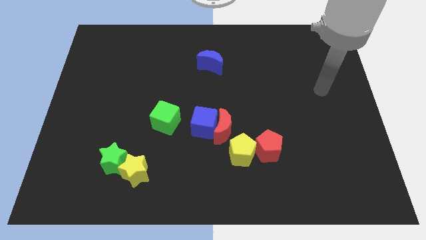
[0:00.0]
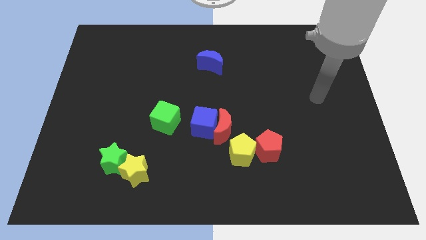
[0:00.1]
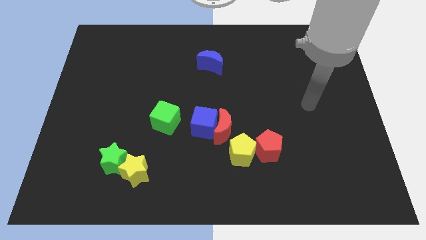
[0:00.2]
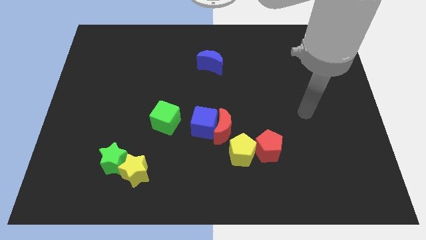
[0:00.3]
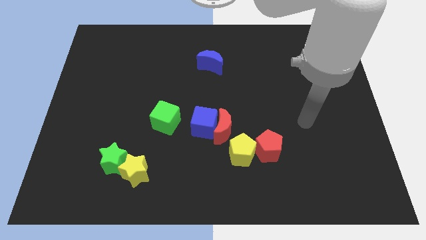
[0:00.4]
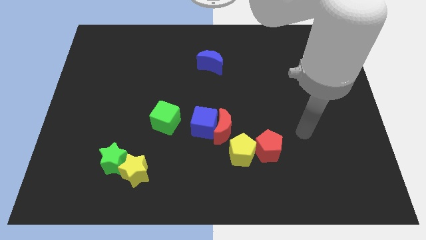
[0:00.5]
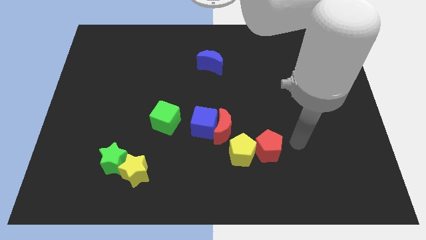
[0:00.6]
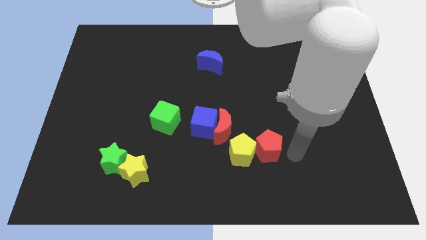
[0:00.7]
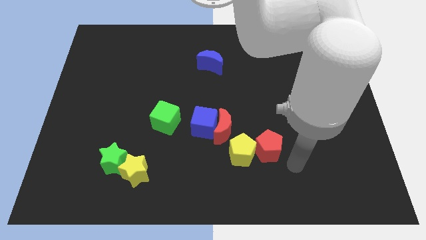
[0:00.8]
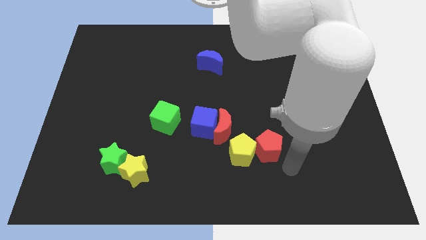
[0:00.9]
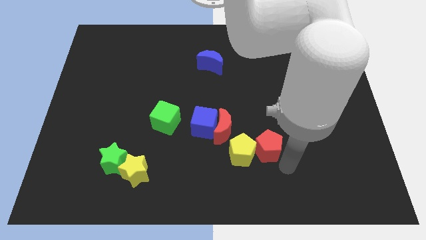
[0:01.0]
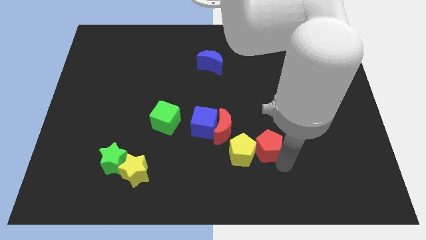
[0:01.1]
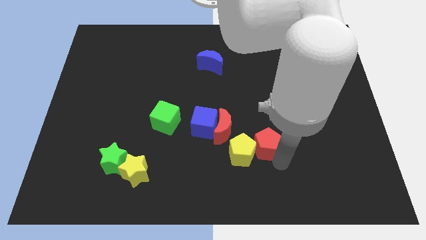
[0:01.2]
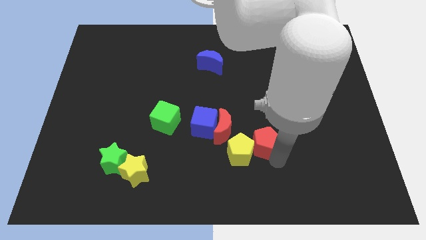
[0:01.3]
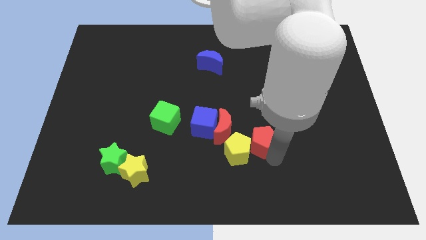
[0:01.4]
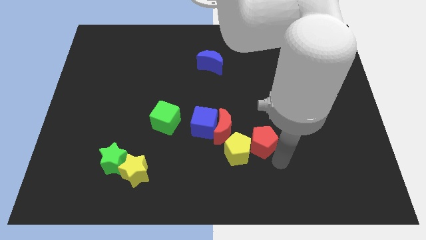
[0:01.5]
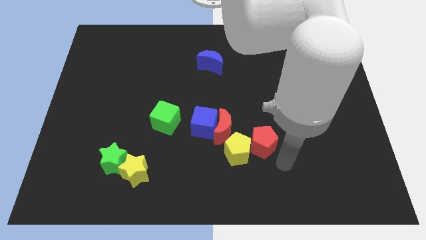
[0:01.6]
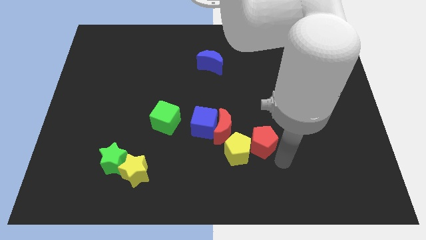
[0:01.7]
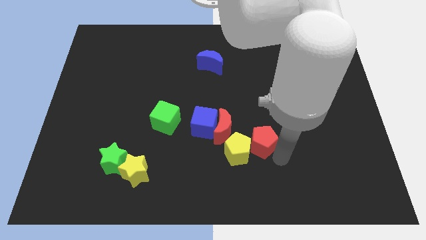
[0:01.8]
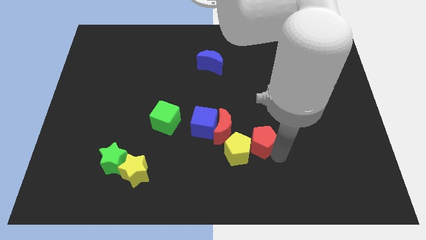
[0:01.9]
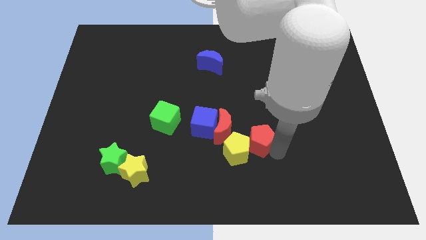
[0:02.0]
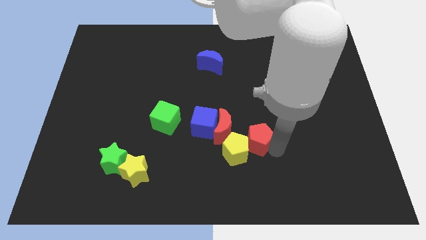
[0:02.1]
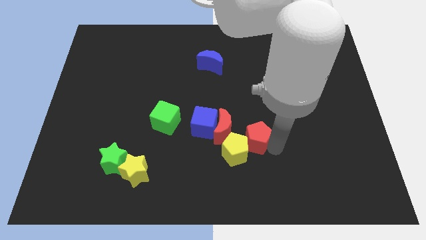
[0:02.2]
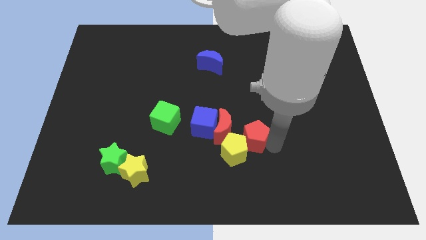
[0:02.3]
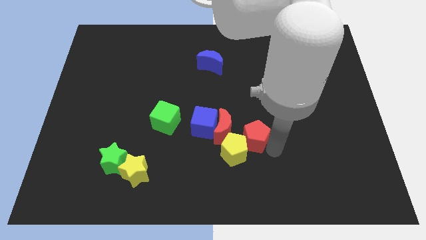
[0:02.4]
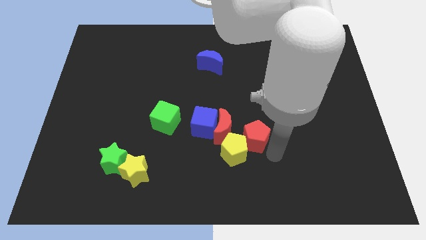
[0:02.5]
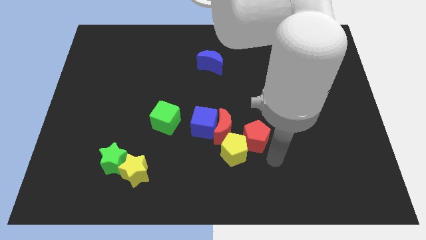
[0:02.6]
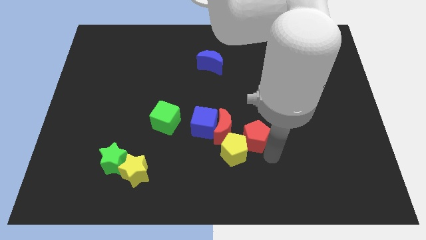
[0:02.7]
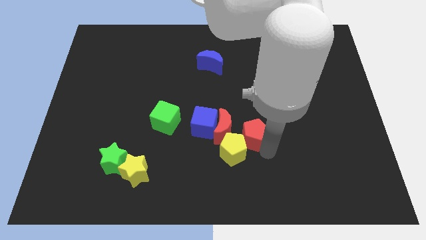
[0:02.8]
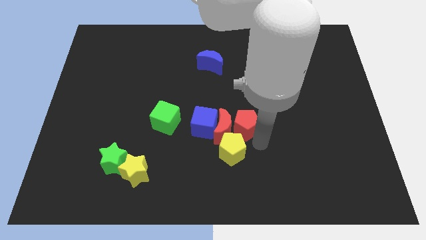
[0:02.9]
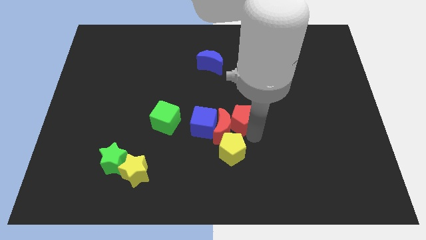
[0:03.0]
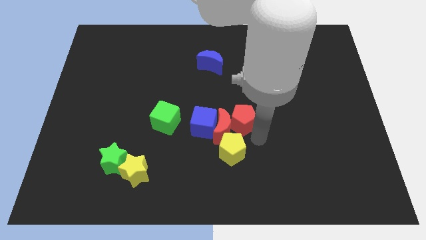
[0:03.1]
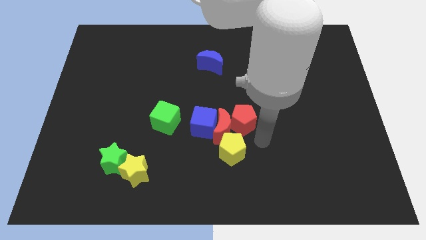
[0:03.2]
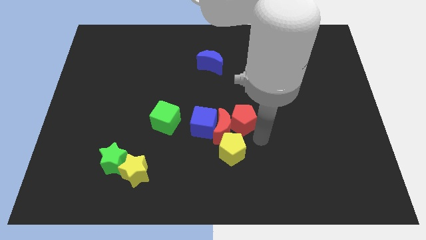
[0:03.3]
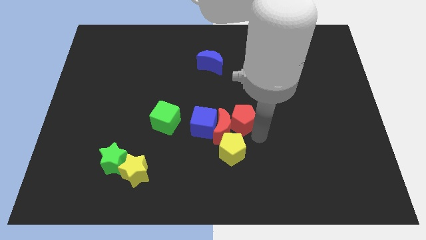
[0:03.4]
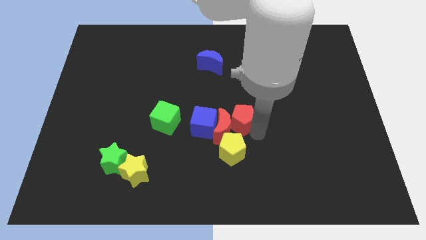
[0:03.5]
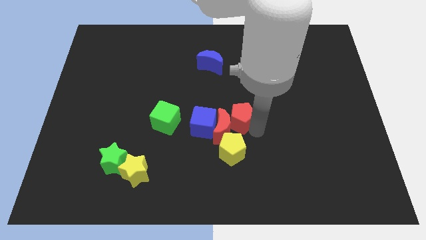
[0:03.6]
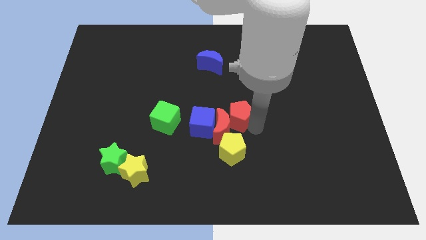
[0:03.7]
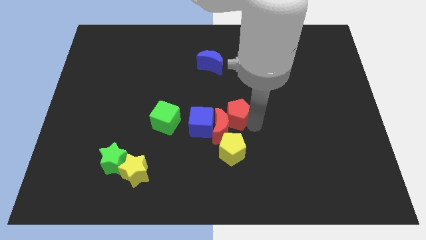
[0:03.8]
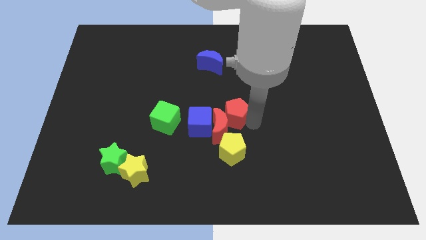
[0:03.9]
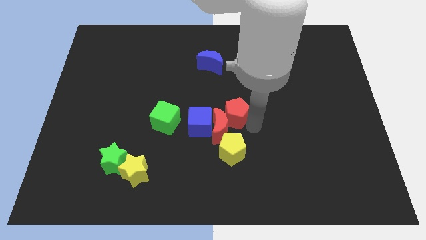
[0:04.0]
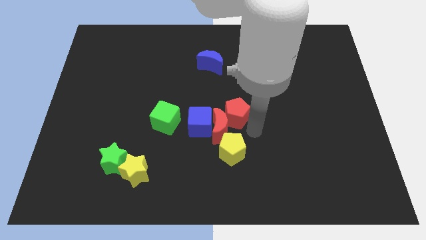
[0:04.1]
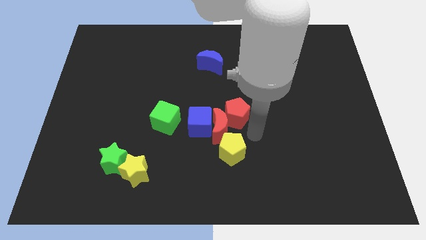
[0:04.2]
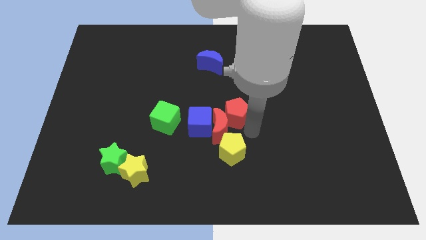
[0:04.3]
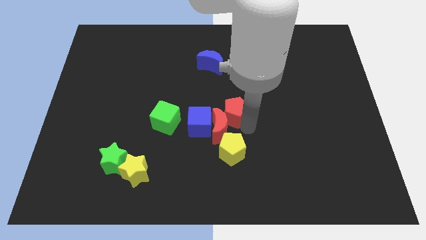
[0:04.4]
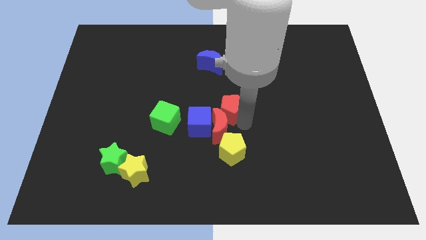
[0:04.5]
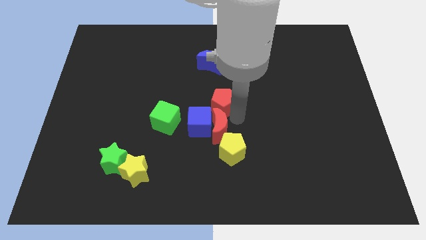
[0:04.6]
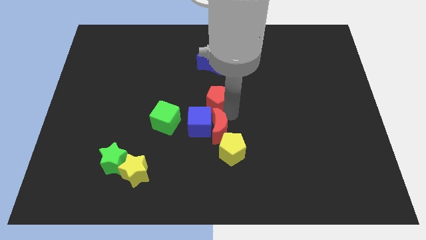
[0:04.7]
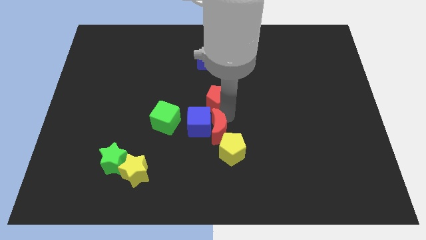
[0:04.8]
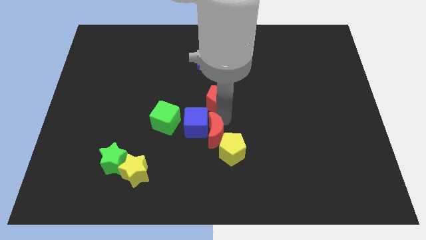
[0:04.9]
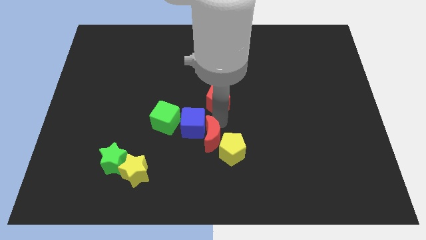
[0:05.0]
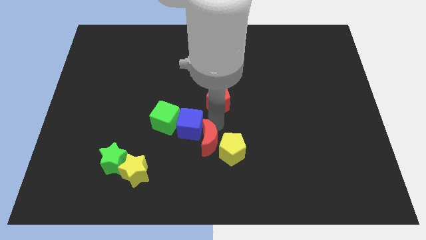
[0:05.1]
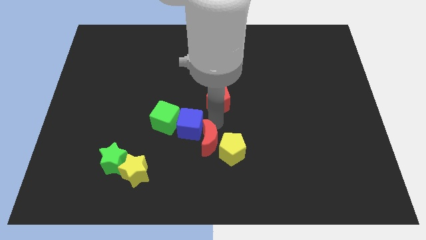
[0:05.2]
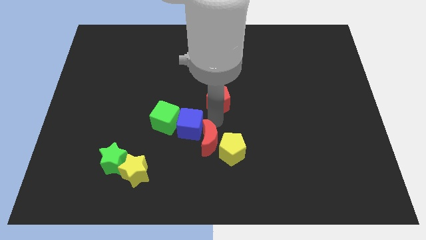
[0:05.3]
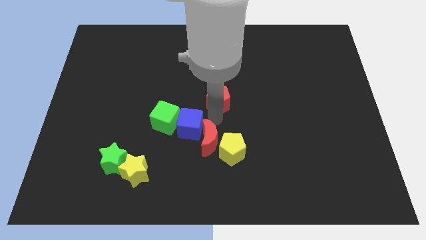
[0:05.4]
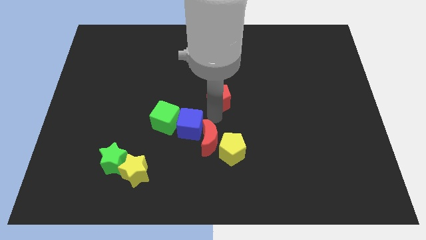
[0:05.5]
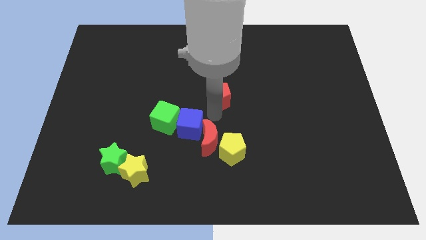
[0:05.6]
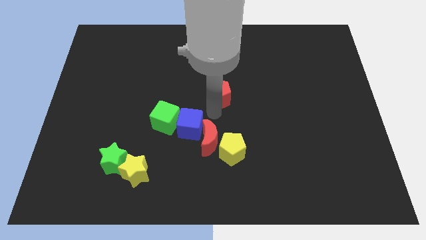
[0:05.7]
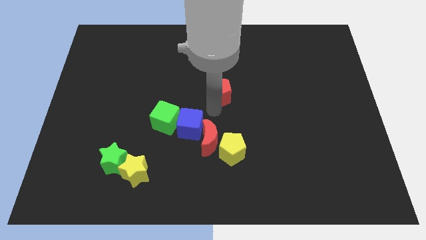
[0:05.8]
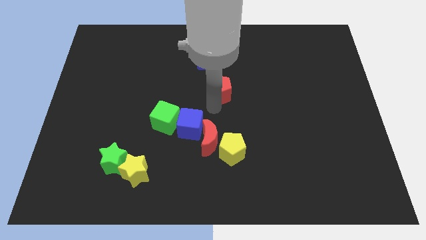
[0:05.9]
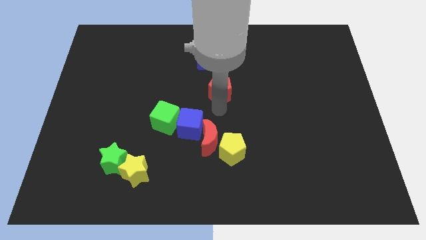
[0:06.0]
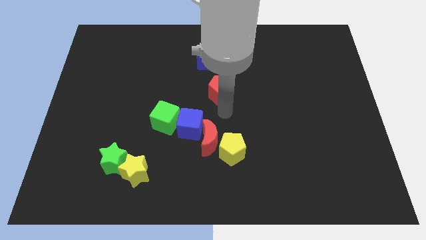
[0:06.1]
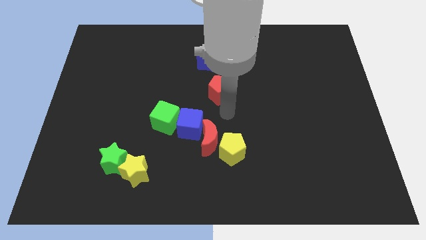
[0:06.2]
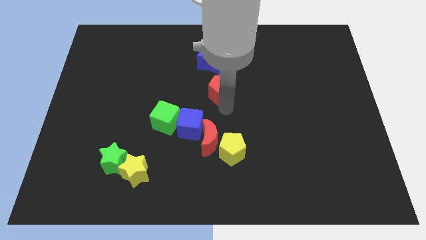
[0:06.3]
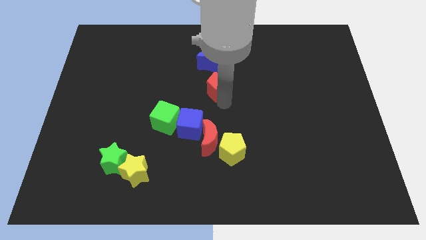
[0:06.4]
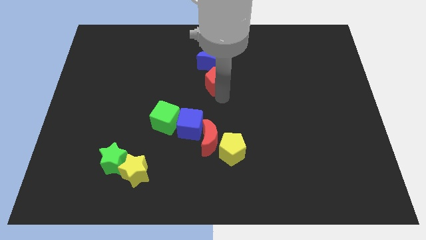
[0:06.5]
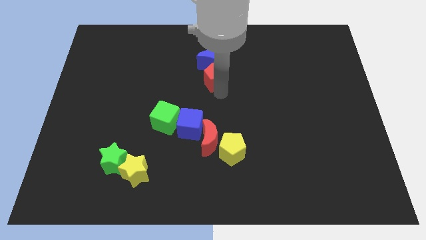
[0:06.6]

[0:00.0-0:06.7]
push the red pentagon towards the blue moon
